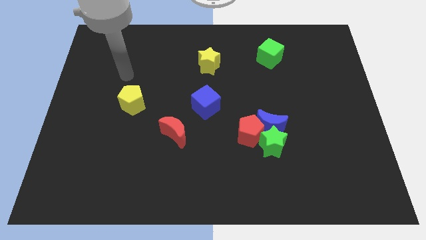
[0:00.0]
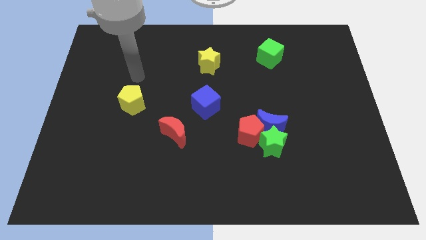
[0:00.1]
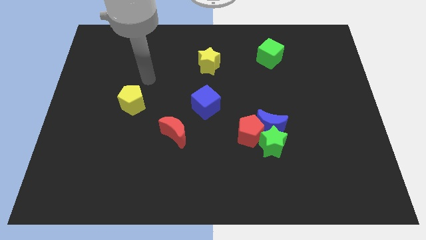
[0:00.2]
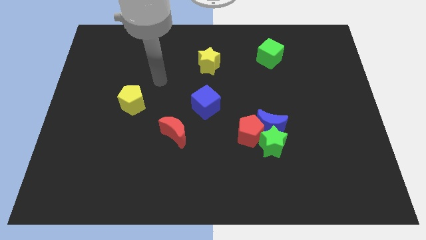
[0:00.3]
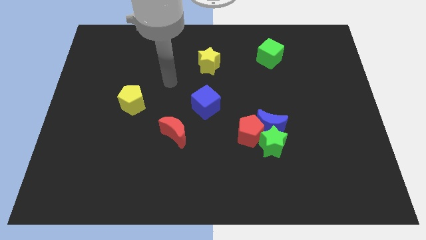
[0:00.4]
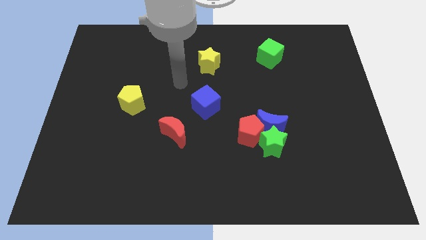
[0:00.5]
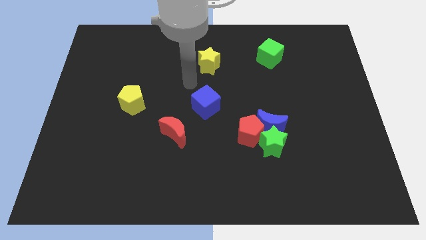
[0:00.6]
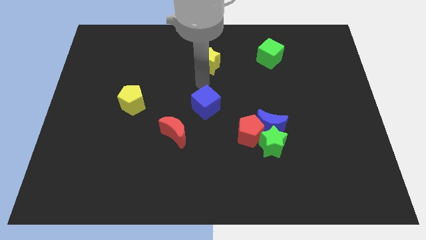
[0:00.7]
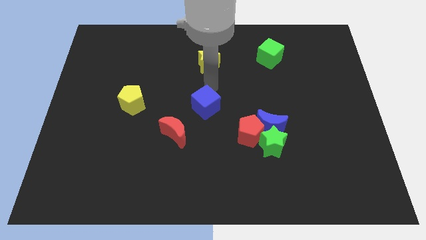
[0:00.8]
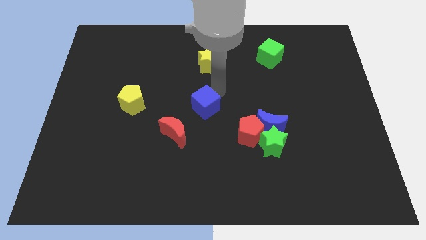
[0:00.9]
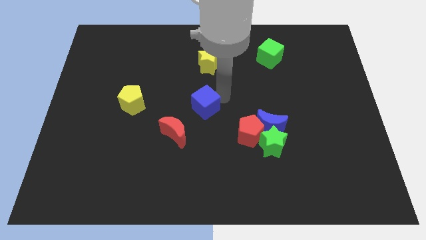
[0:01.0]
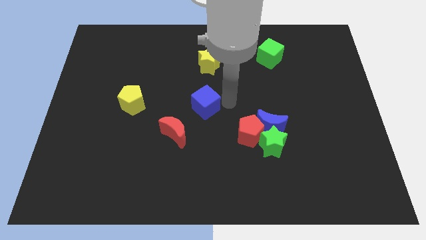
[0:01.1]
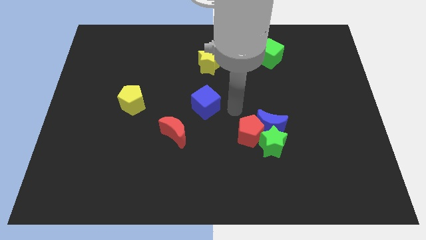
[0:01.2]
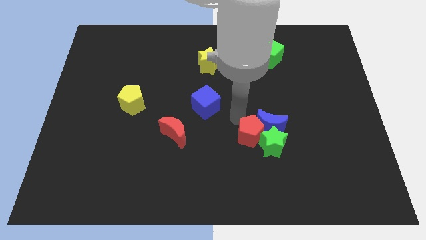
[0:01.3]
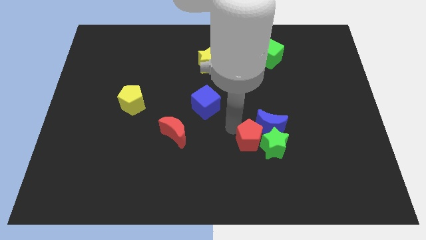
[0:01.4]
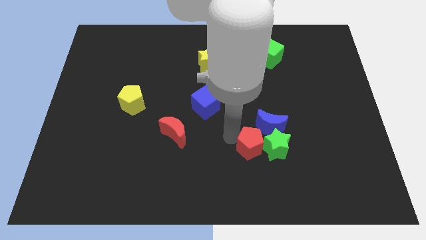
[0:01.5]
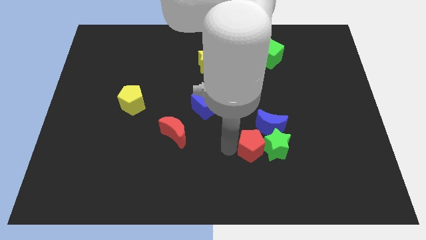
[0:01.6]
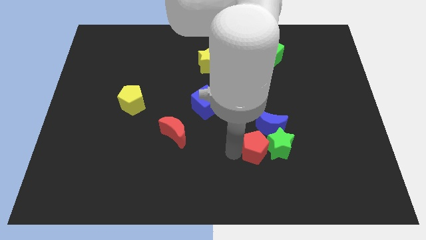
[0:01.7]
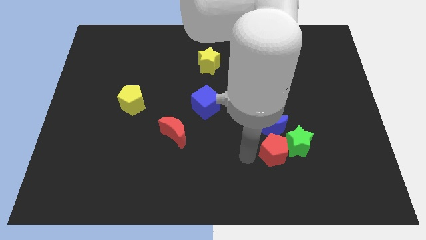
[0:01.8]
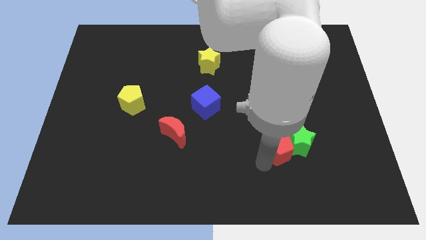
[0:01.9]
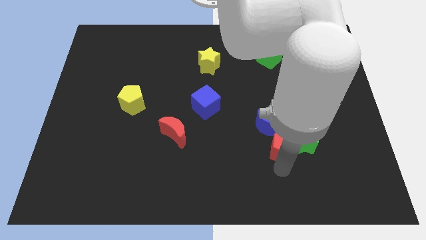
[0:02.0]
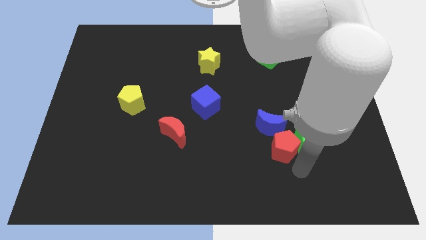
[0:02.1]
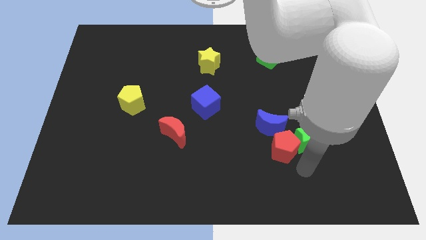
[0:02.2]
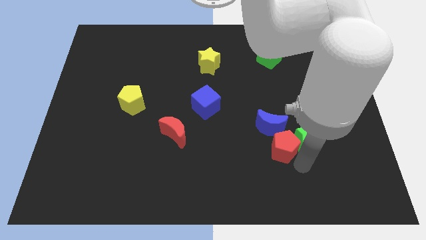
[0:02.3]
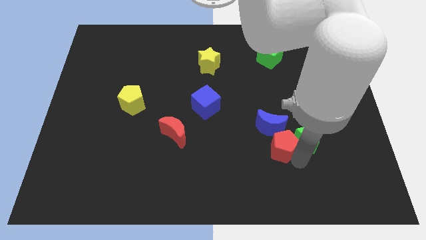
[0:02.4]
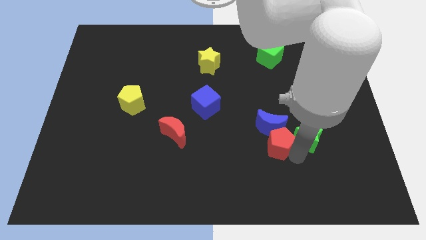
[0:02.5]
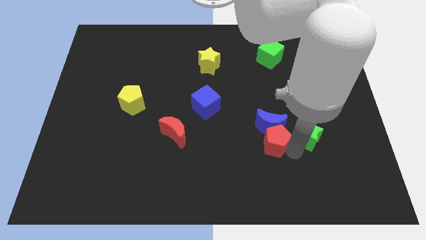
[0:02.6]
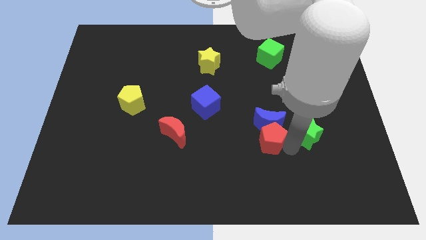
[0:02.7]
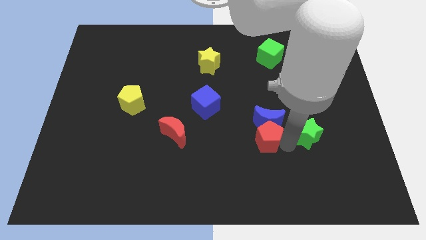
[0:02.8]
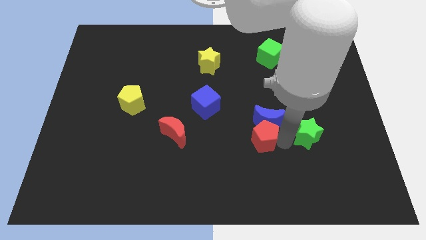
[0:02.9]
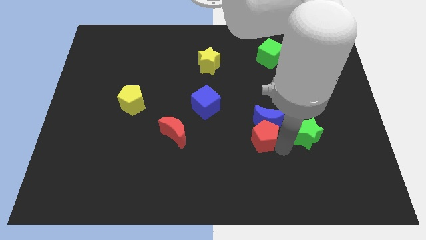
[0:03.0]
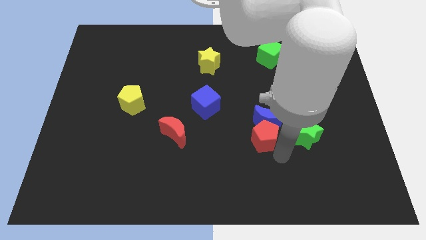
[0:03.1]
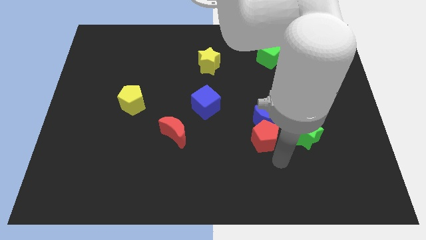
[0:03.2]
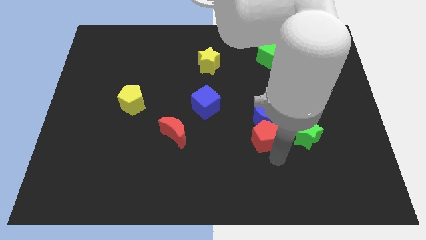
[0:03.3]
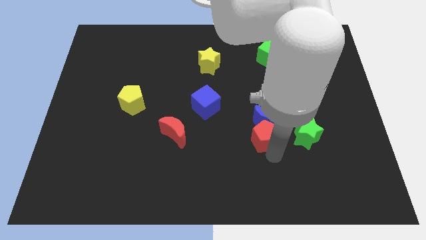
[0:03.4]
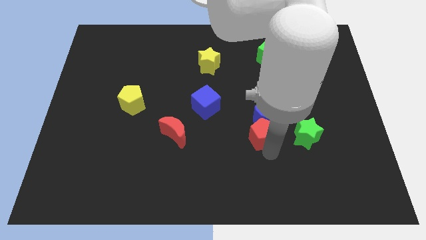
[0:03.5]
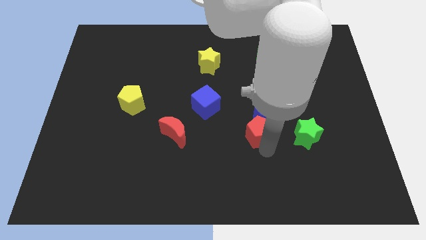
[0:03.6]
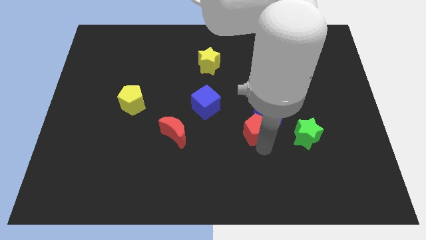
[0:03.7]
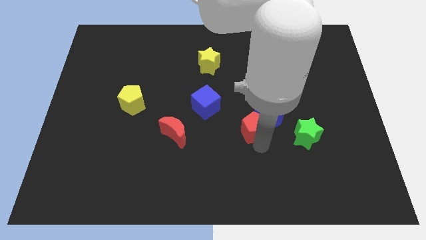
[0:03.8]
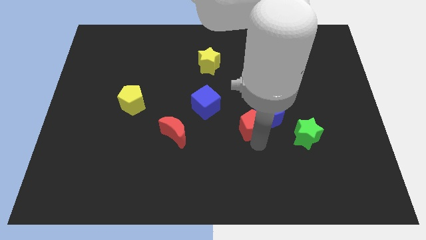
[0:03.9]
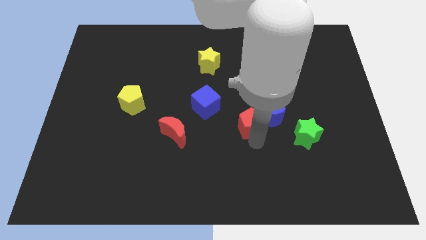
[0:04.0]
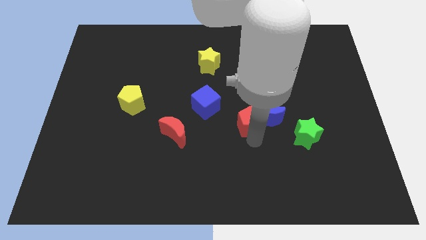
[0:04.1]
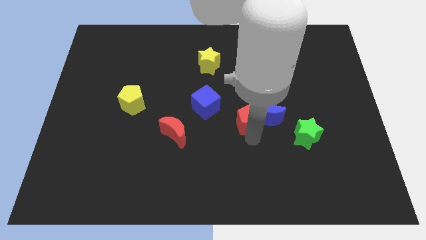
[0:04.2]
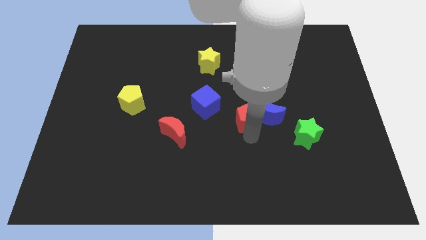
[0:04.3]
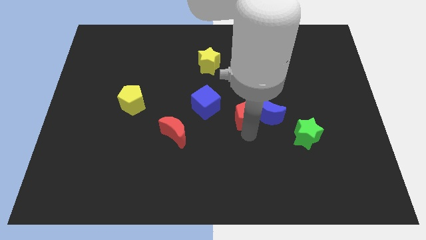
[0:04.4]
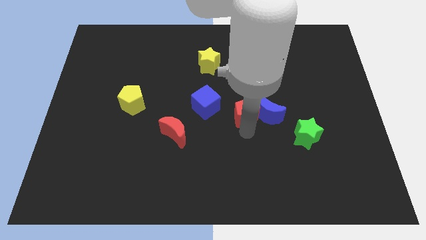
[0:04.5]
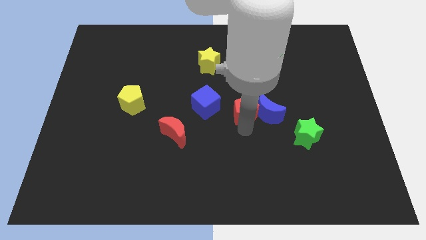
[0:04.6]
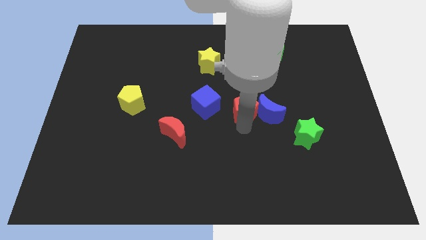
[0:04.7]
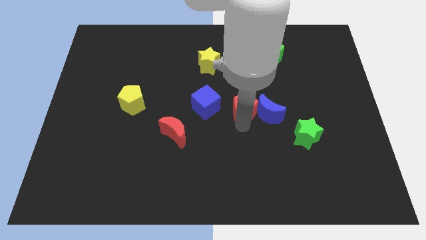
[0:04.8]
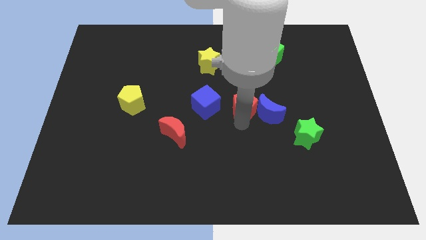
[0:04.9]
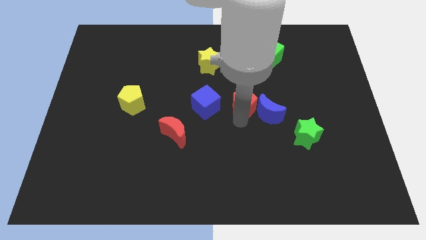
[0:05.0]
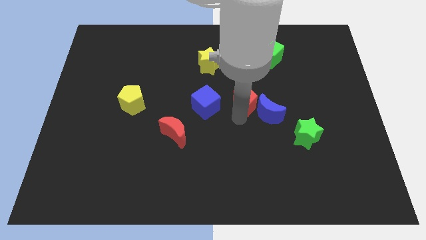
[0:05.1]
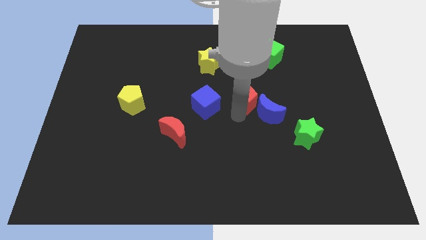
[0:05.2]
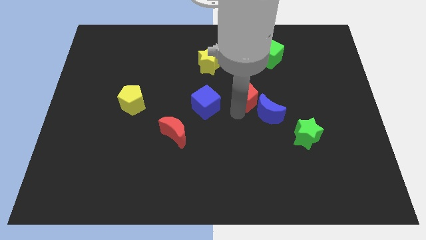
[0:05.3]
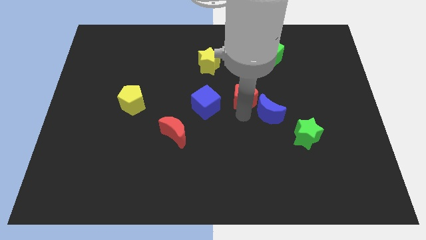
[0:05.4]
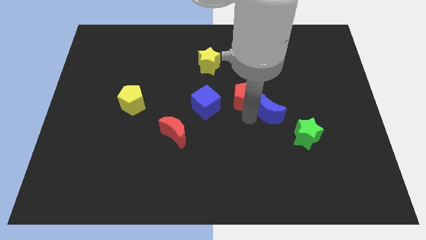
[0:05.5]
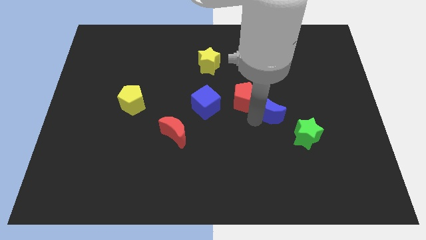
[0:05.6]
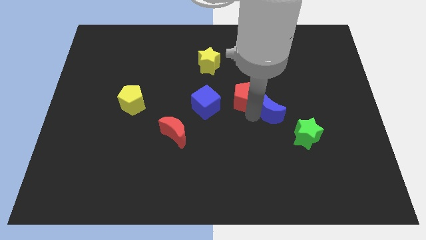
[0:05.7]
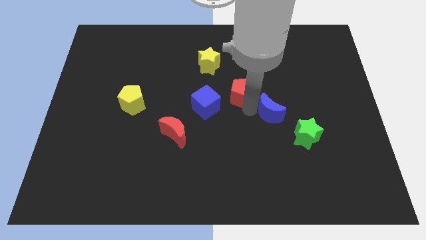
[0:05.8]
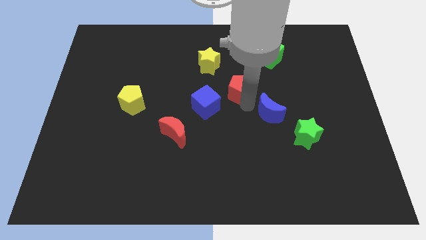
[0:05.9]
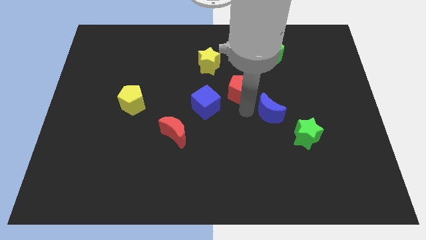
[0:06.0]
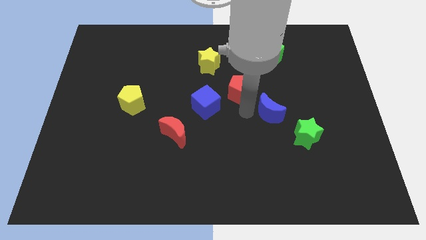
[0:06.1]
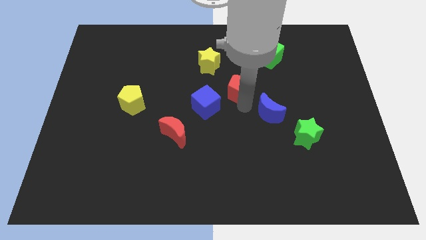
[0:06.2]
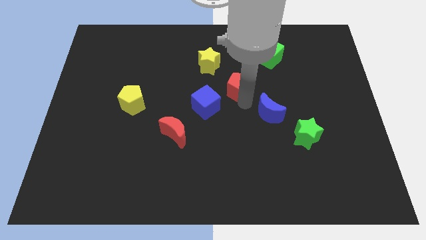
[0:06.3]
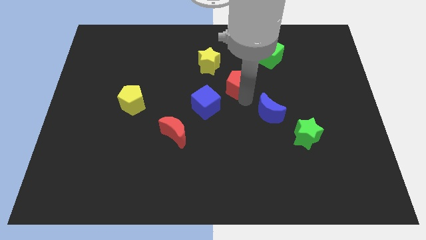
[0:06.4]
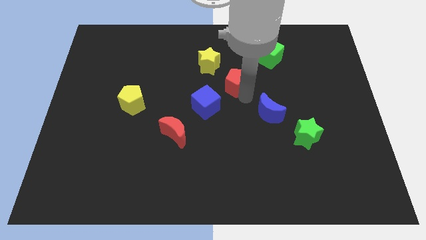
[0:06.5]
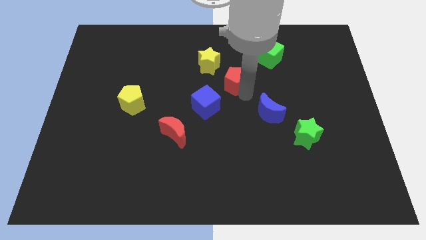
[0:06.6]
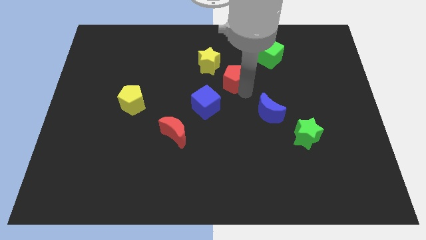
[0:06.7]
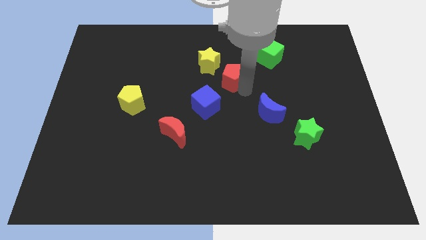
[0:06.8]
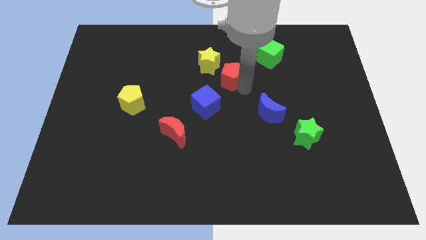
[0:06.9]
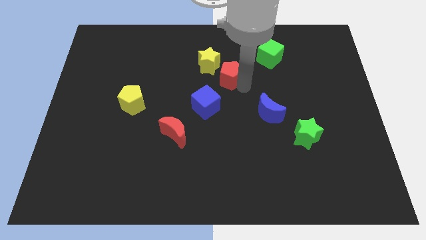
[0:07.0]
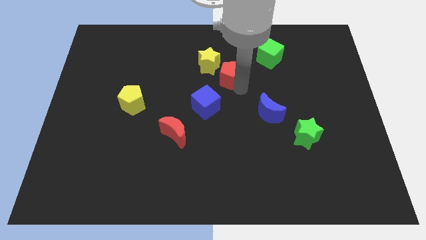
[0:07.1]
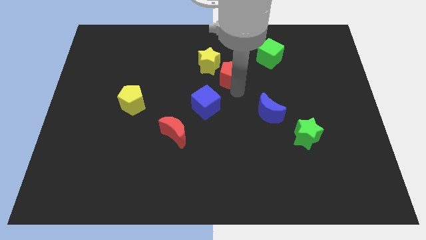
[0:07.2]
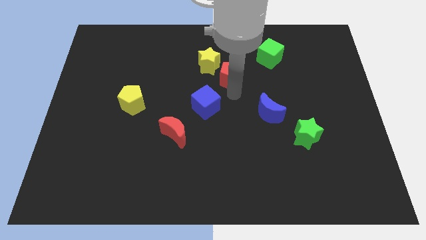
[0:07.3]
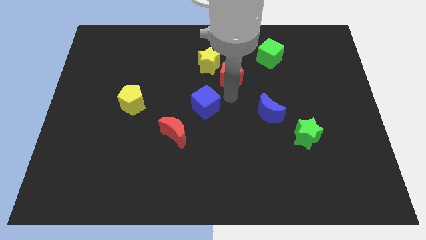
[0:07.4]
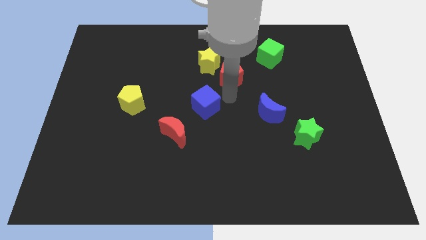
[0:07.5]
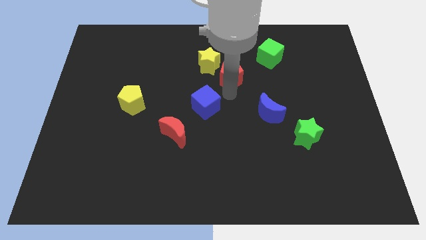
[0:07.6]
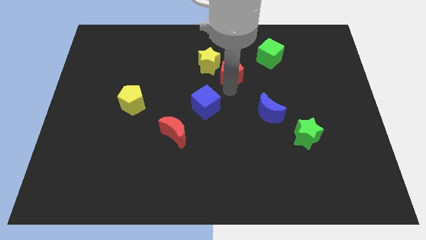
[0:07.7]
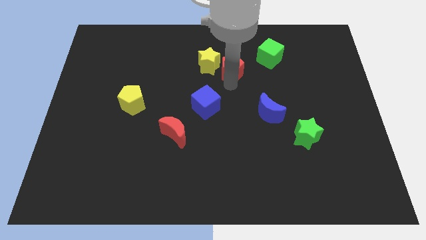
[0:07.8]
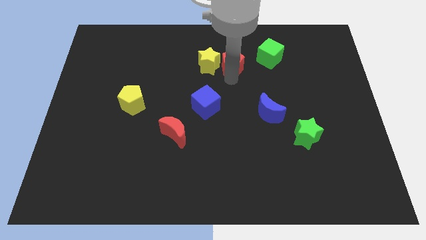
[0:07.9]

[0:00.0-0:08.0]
push the red pentagon to the left of the green cube
